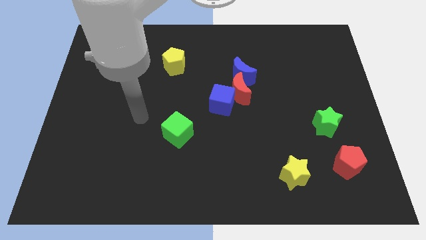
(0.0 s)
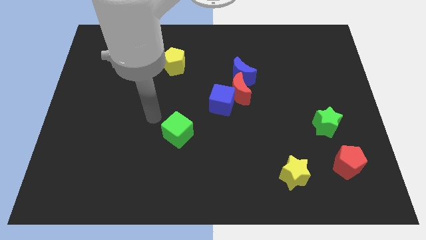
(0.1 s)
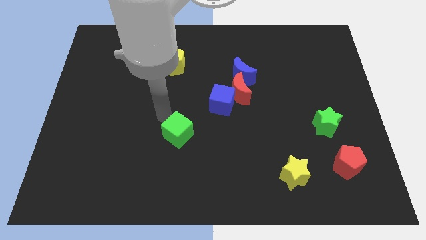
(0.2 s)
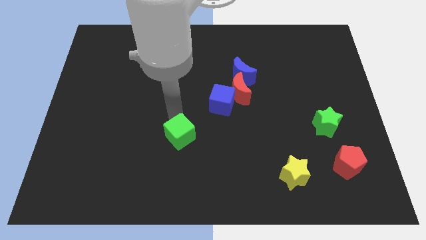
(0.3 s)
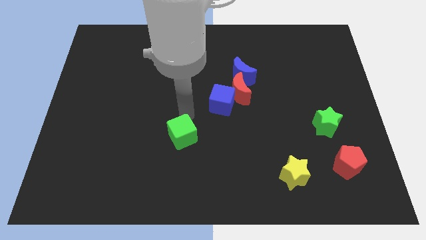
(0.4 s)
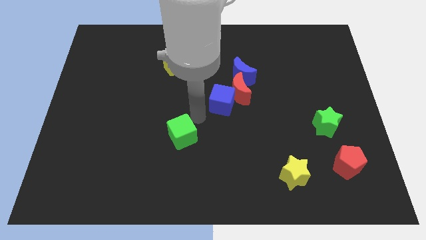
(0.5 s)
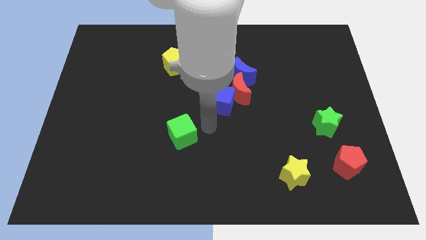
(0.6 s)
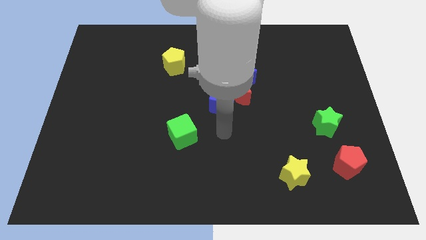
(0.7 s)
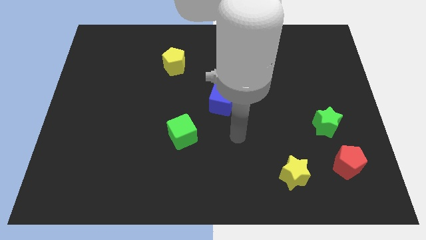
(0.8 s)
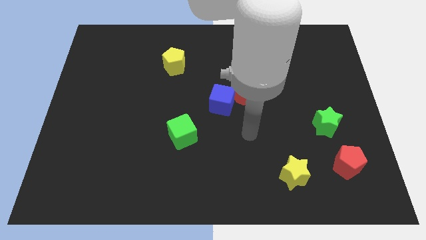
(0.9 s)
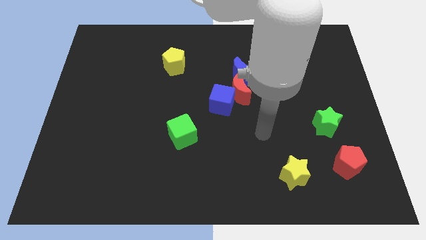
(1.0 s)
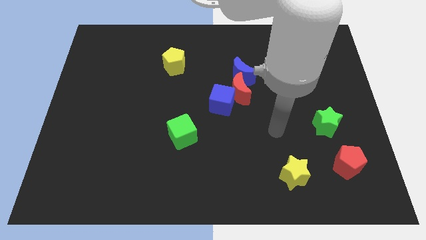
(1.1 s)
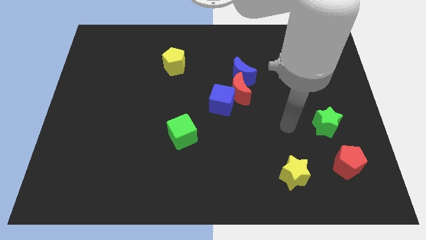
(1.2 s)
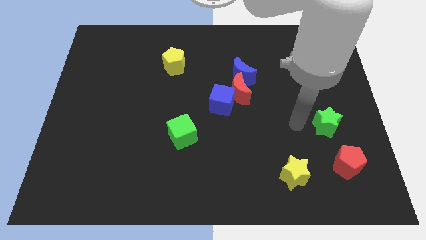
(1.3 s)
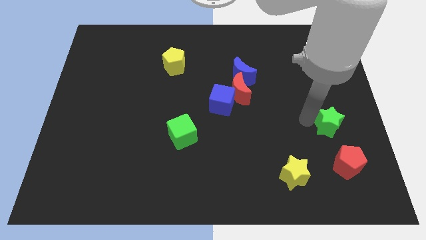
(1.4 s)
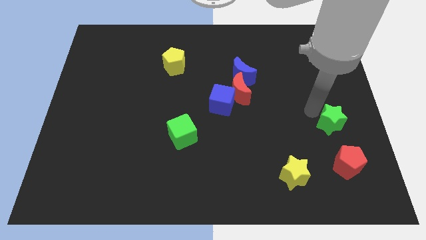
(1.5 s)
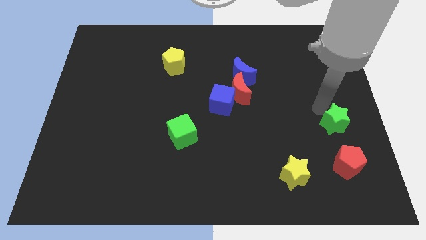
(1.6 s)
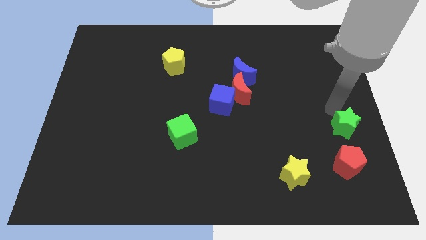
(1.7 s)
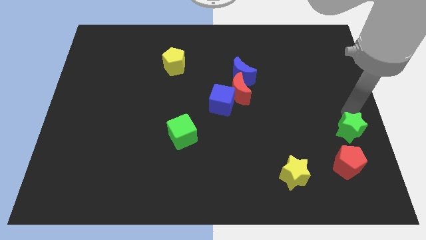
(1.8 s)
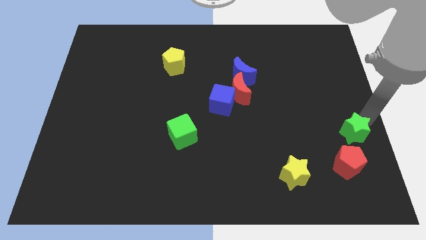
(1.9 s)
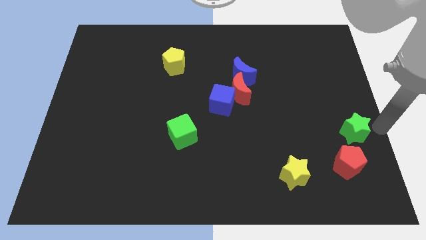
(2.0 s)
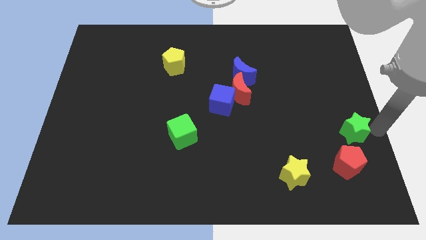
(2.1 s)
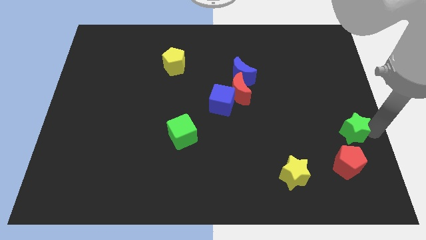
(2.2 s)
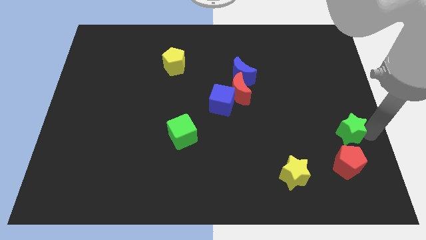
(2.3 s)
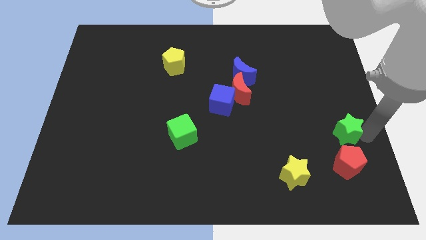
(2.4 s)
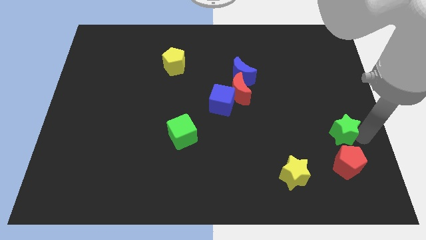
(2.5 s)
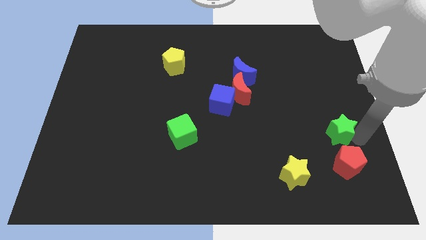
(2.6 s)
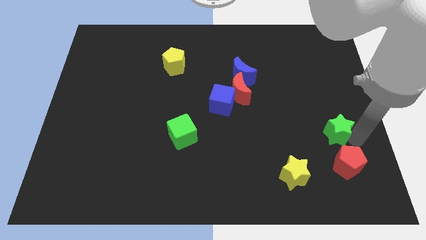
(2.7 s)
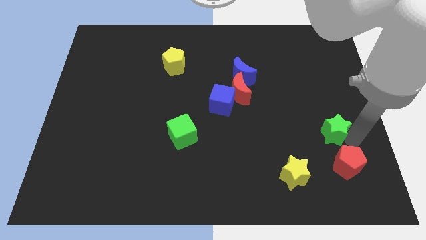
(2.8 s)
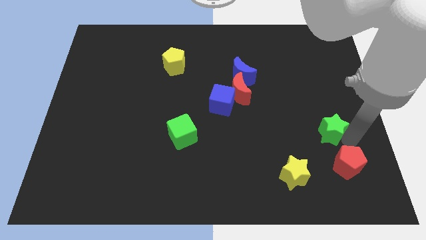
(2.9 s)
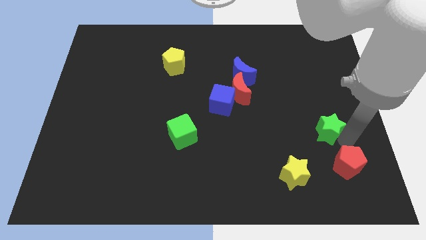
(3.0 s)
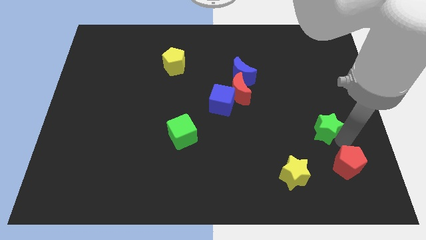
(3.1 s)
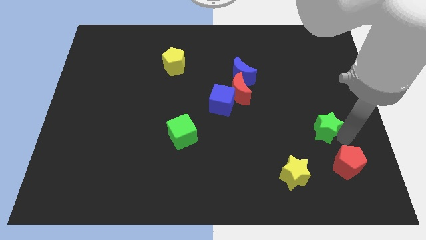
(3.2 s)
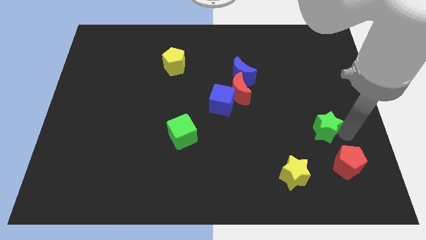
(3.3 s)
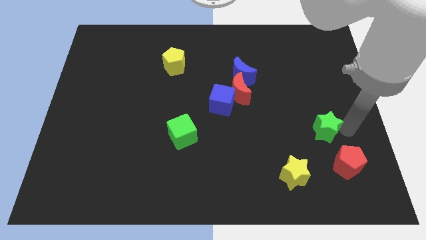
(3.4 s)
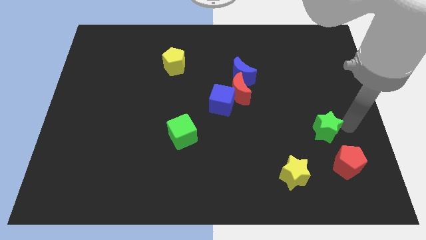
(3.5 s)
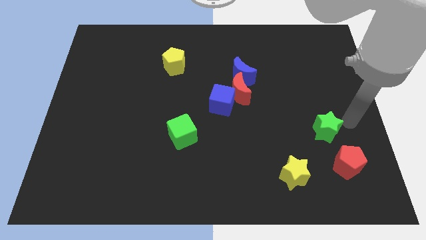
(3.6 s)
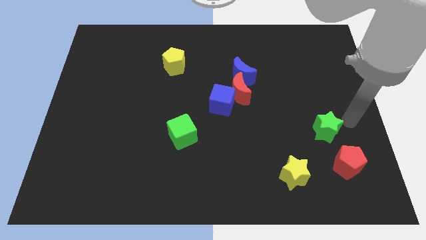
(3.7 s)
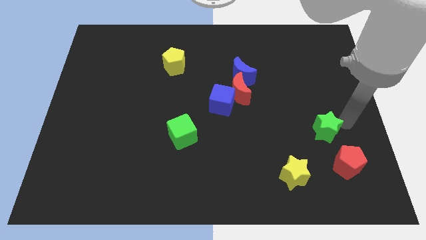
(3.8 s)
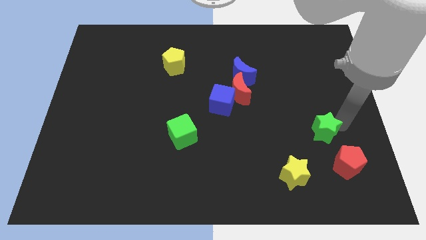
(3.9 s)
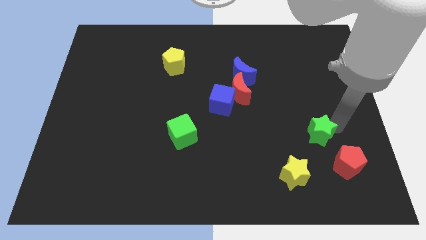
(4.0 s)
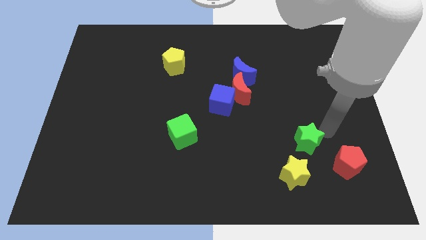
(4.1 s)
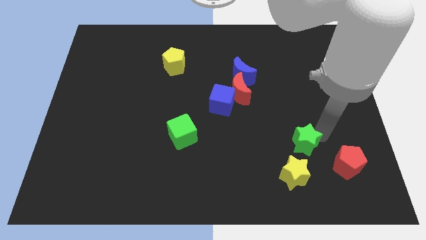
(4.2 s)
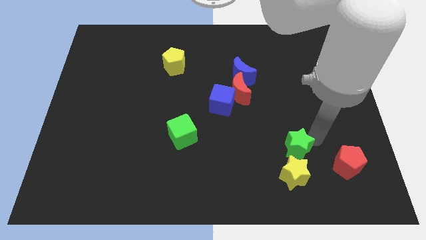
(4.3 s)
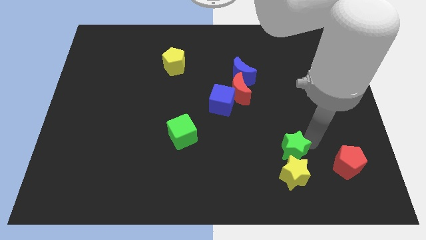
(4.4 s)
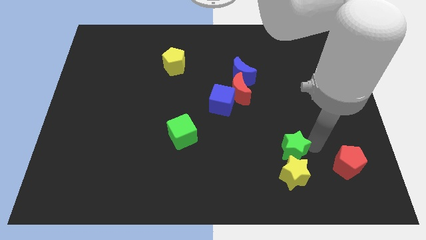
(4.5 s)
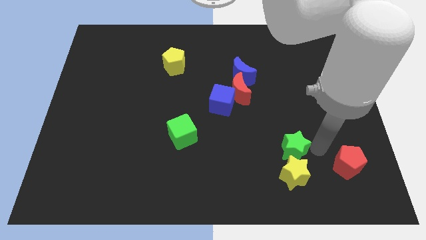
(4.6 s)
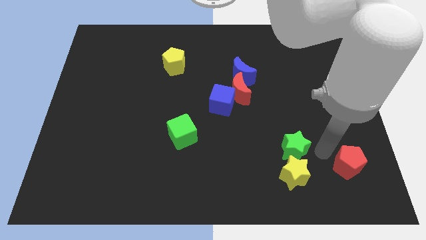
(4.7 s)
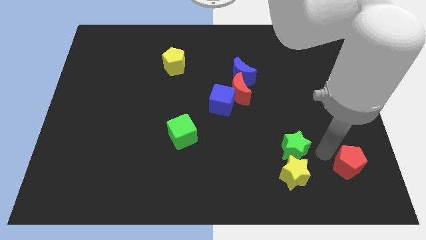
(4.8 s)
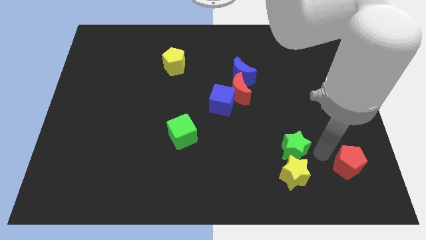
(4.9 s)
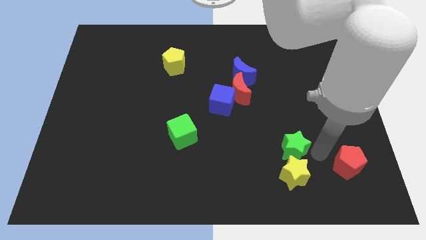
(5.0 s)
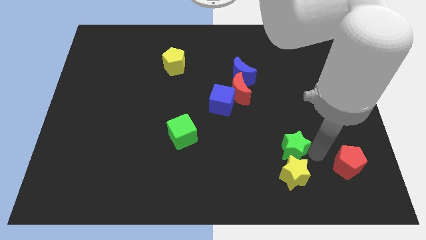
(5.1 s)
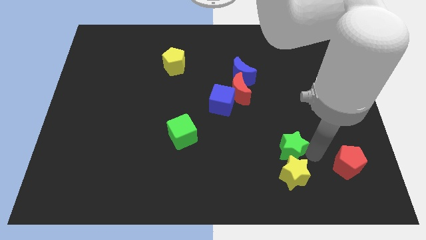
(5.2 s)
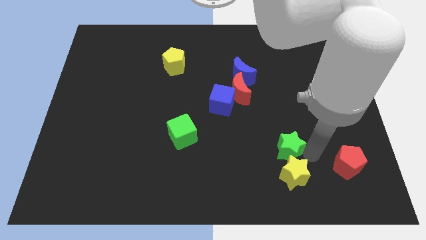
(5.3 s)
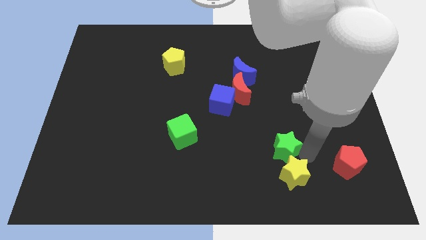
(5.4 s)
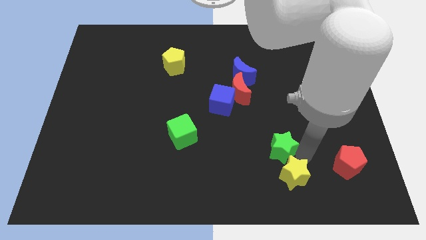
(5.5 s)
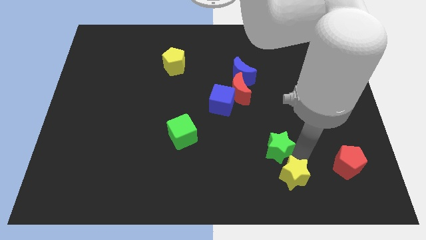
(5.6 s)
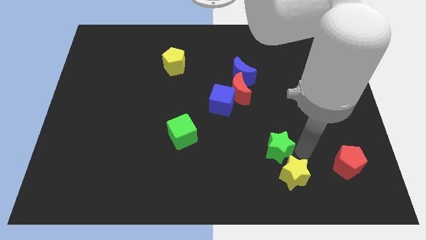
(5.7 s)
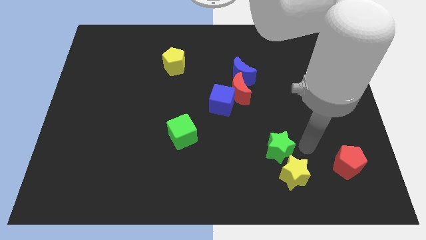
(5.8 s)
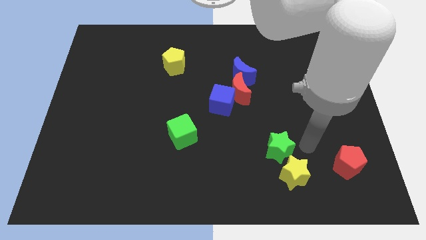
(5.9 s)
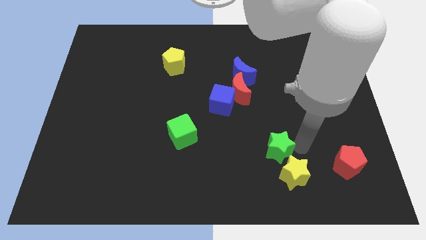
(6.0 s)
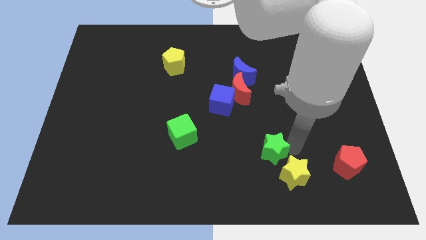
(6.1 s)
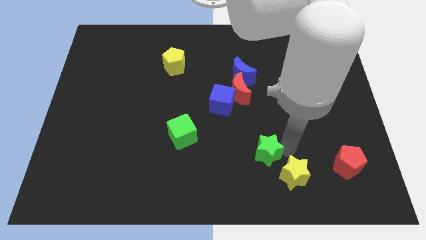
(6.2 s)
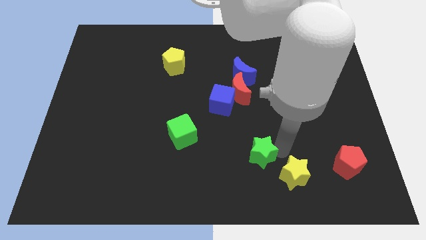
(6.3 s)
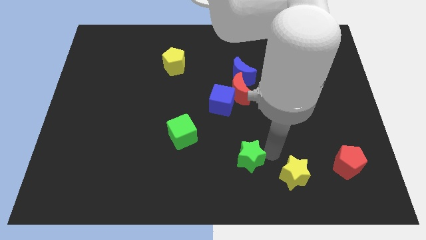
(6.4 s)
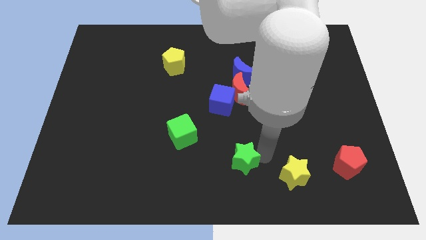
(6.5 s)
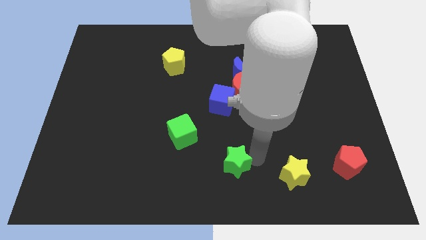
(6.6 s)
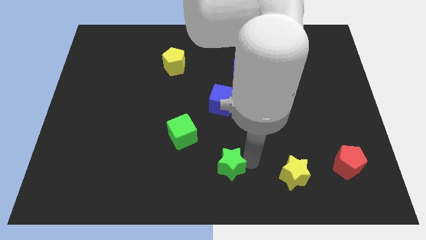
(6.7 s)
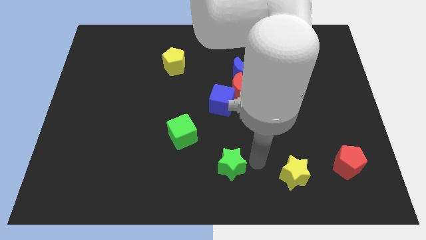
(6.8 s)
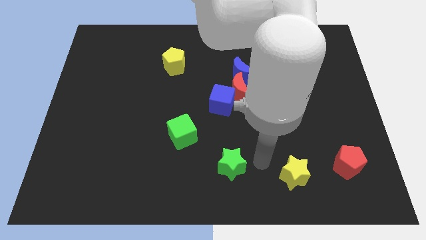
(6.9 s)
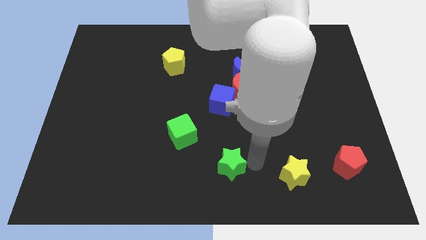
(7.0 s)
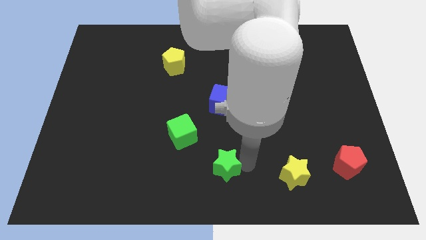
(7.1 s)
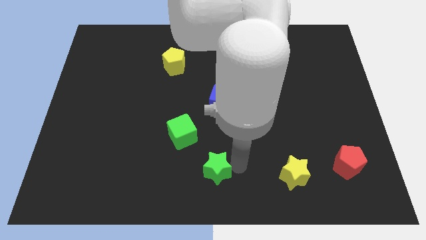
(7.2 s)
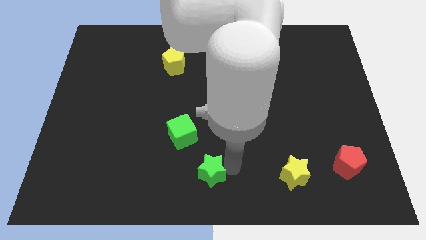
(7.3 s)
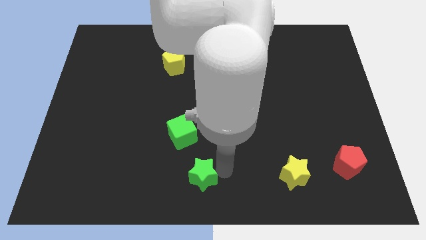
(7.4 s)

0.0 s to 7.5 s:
move the green star below the green cube
